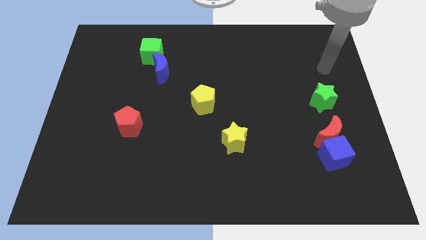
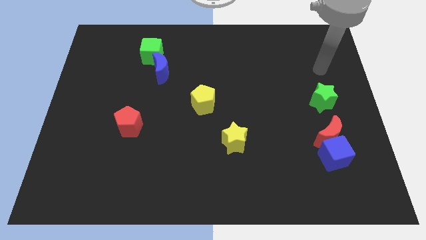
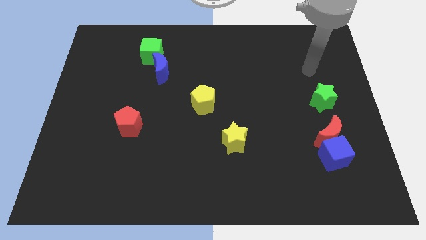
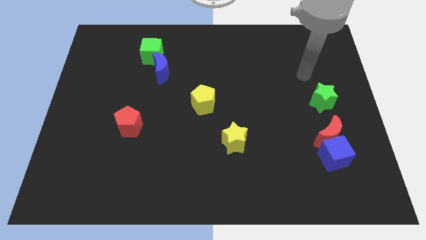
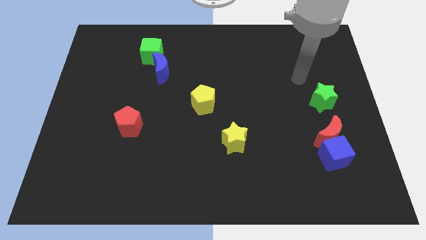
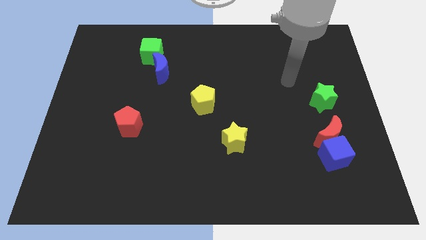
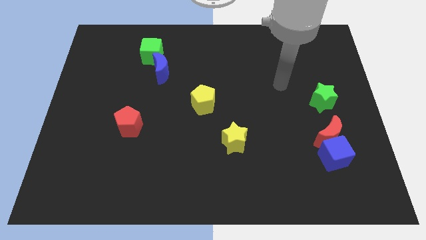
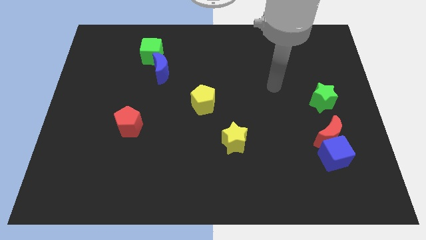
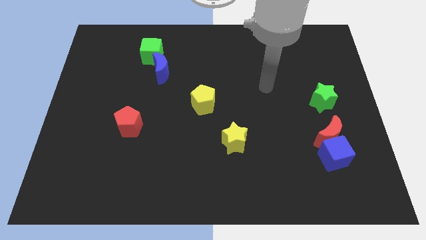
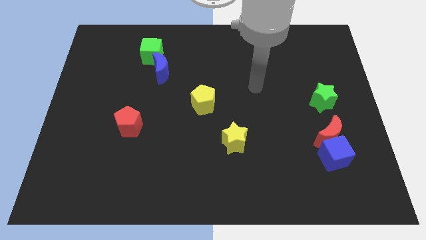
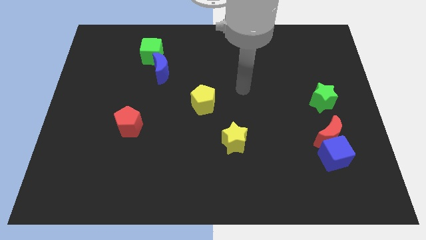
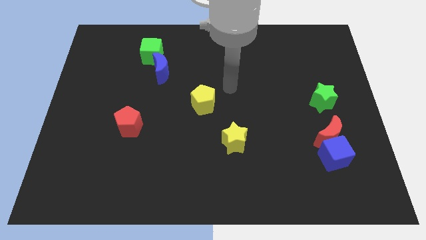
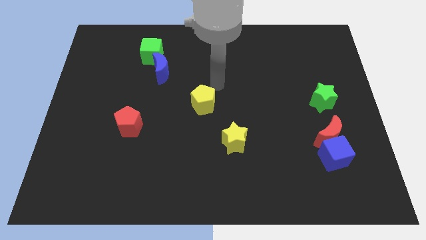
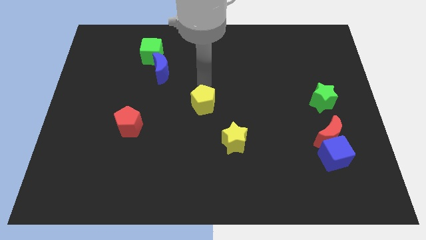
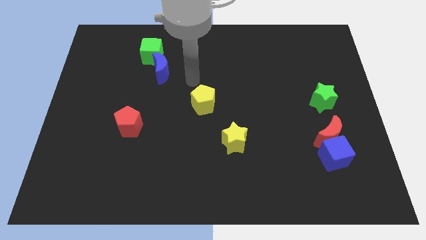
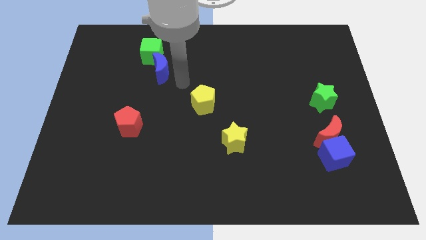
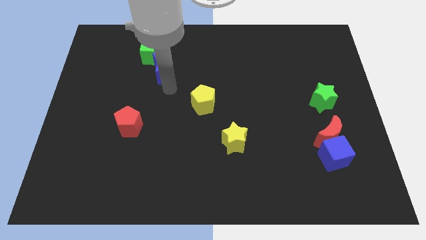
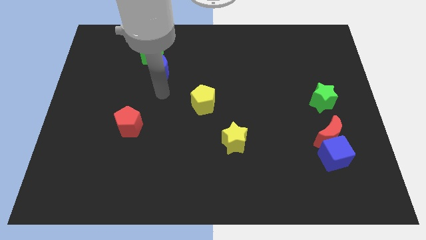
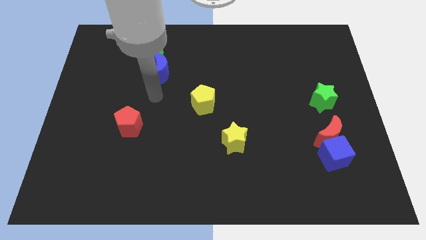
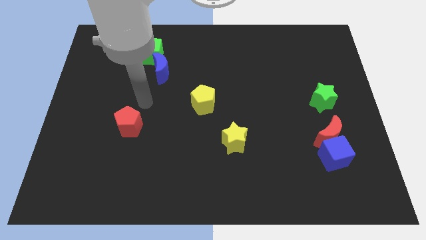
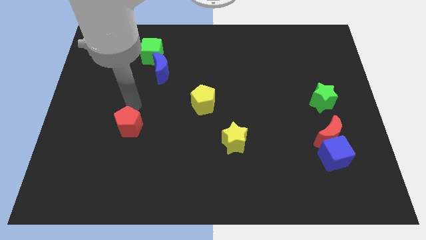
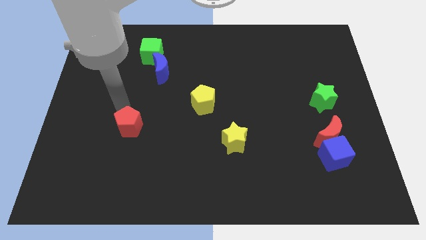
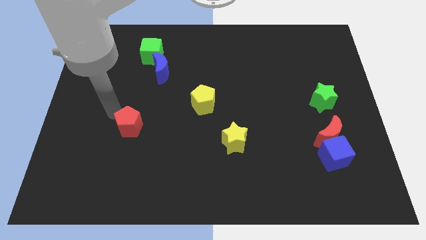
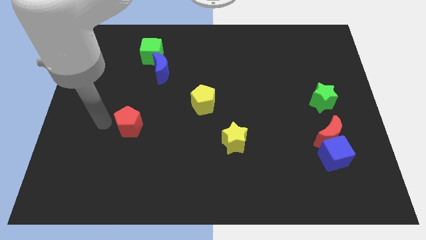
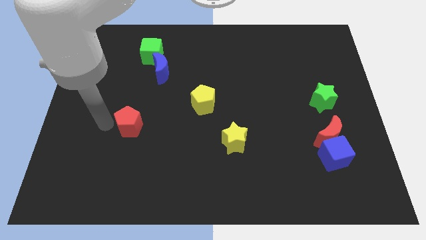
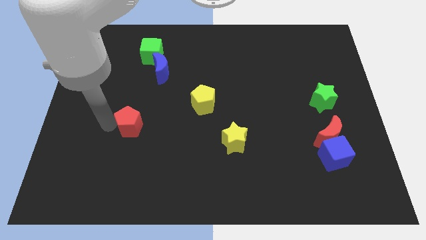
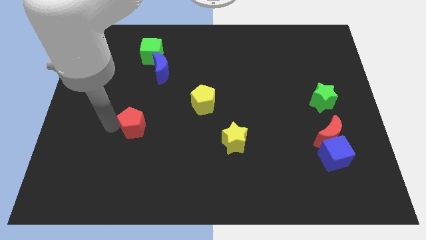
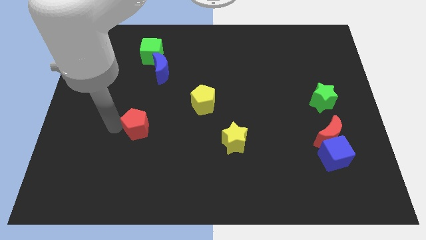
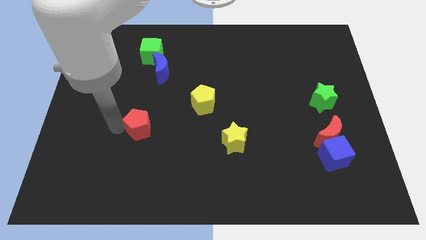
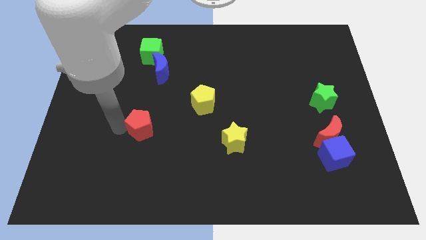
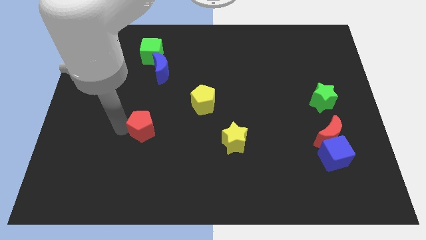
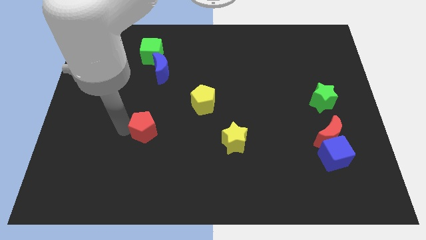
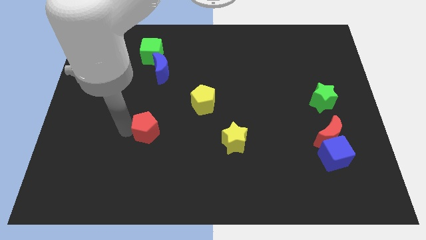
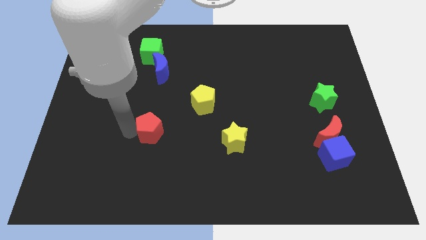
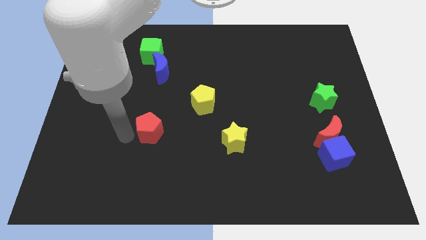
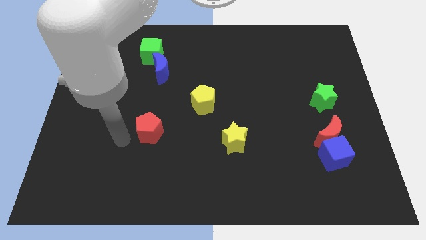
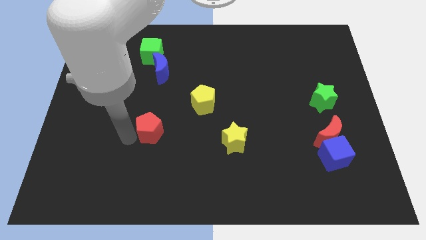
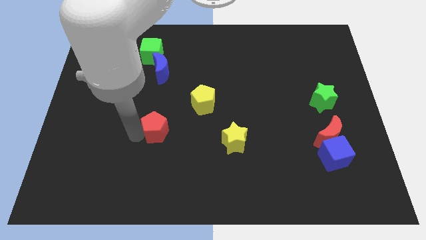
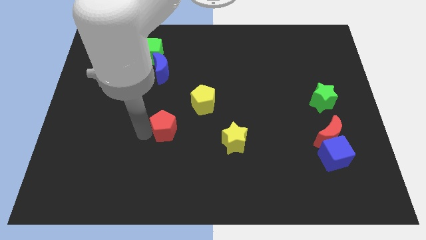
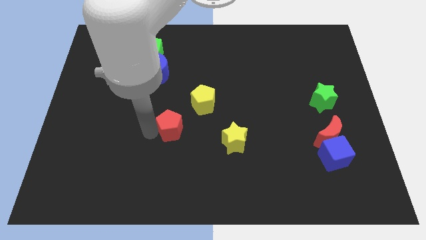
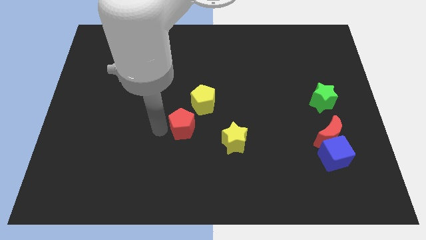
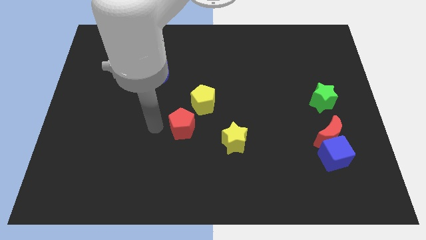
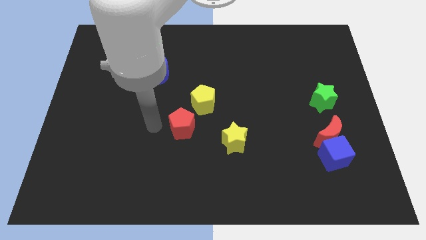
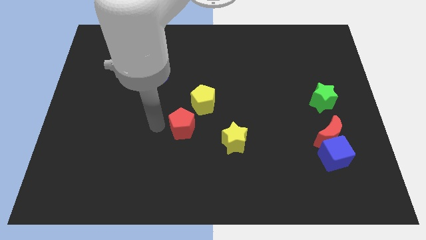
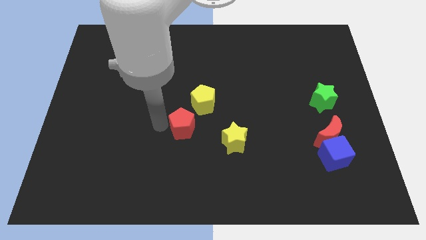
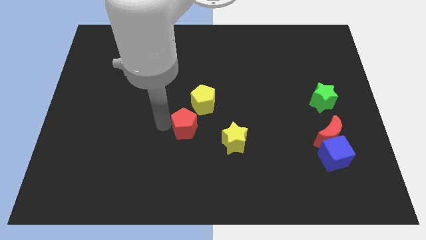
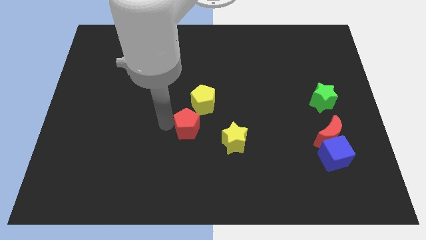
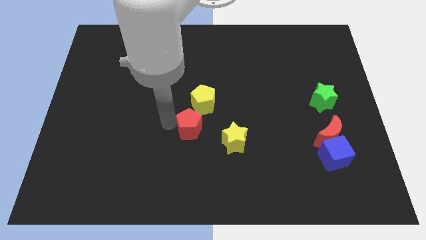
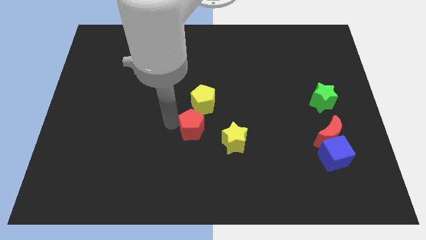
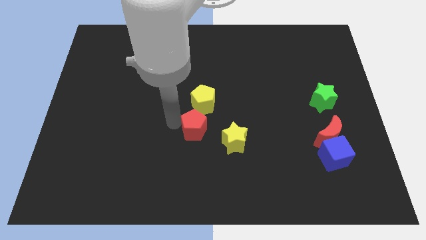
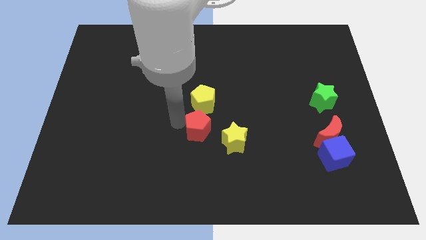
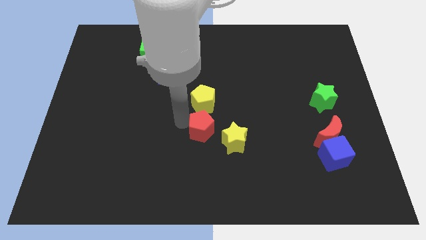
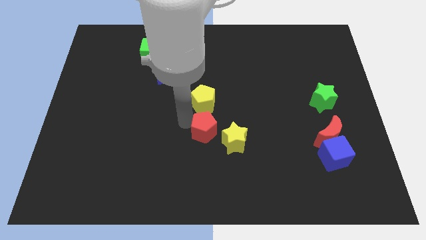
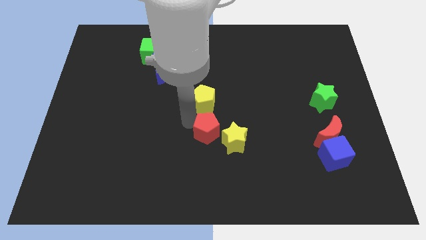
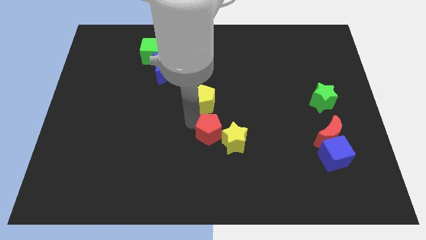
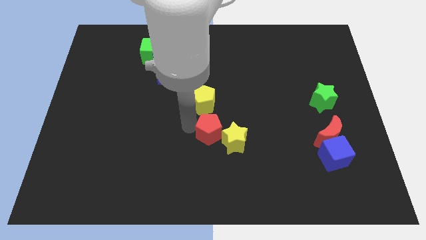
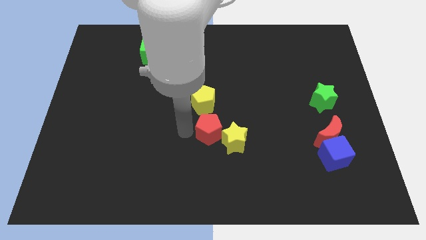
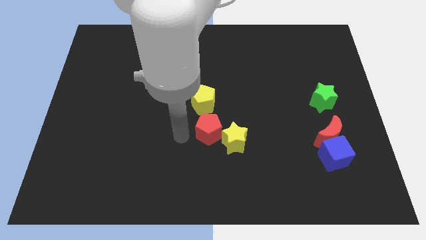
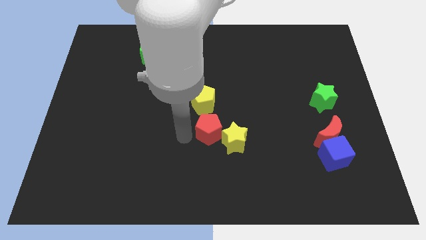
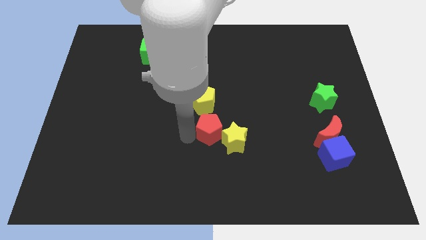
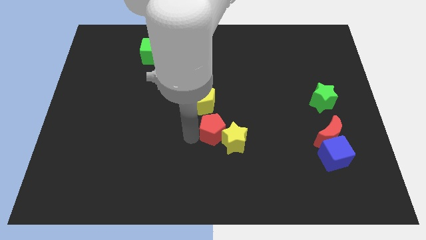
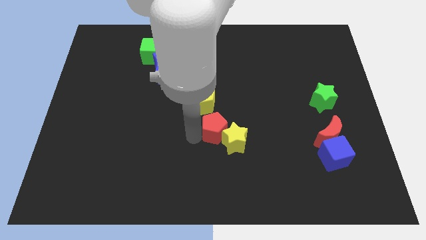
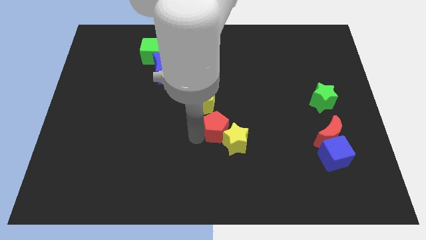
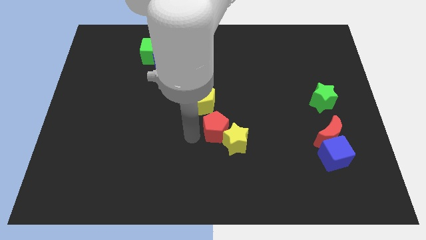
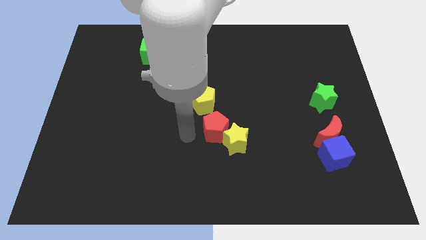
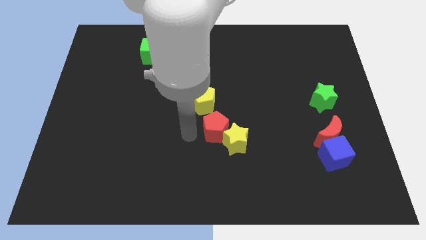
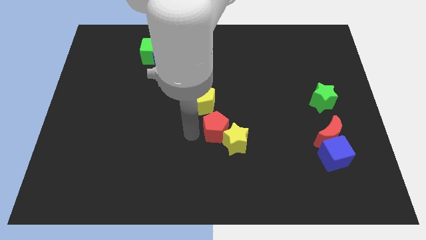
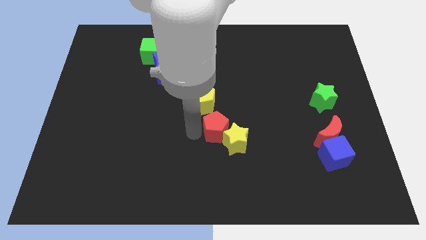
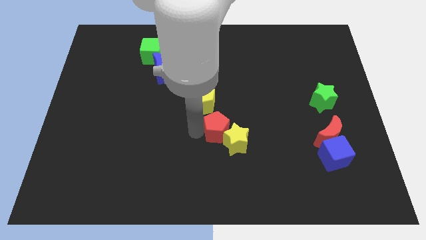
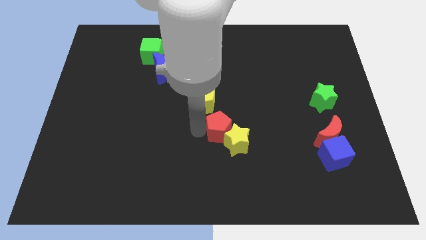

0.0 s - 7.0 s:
move the red pentagon right

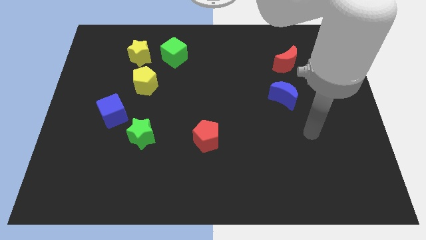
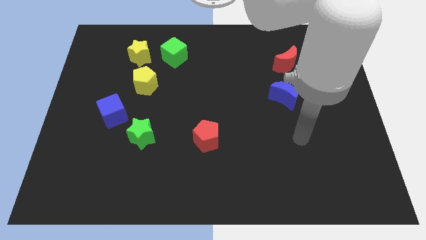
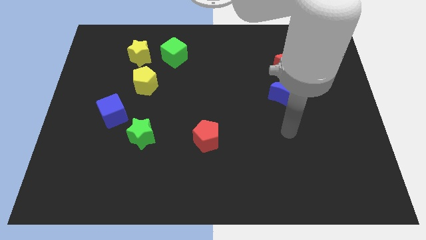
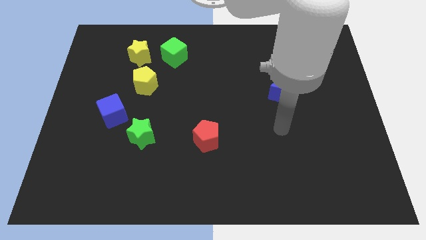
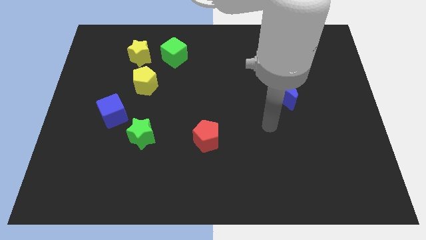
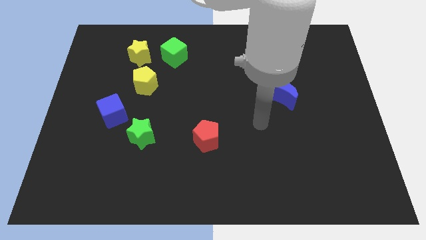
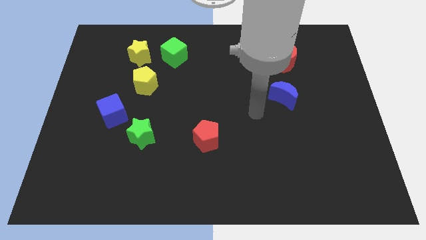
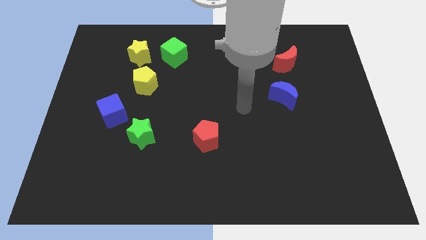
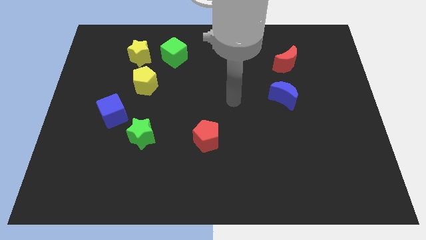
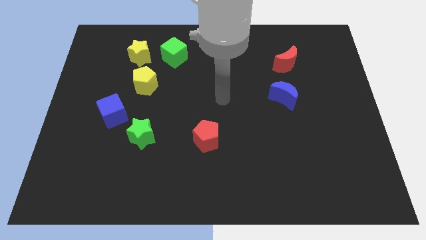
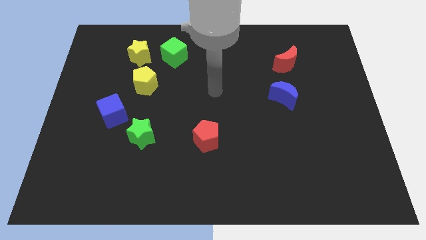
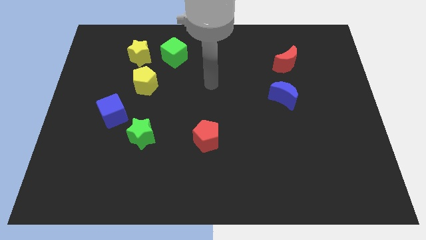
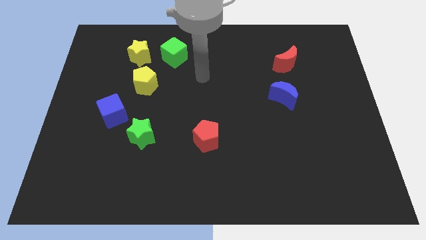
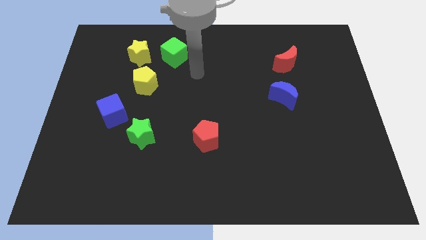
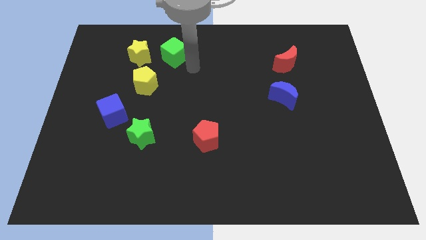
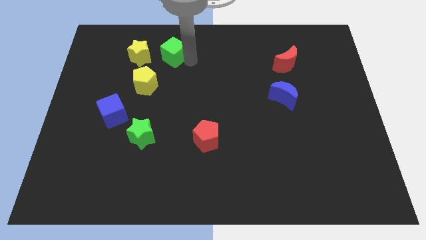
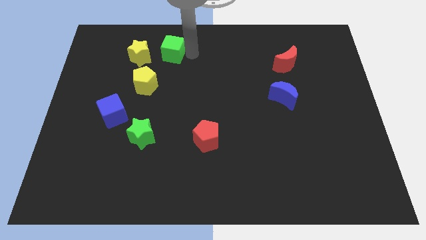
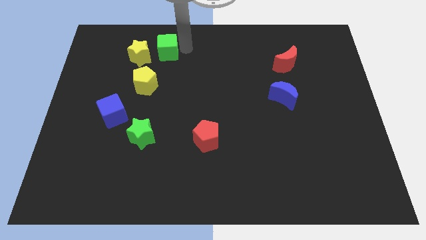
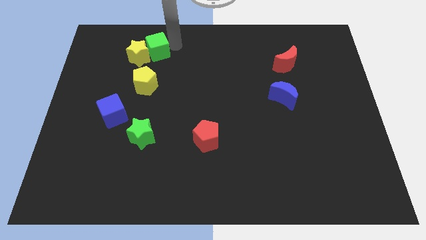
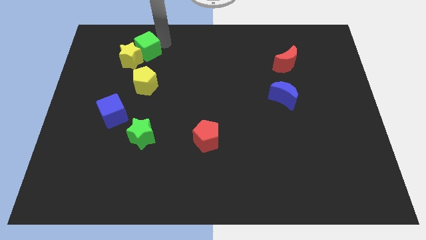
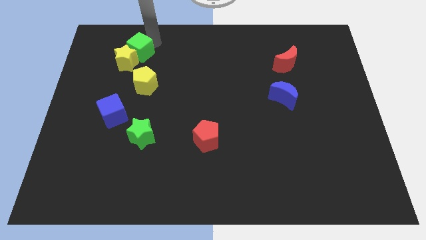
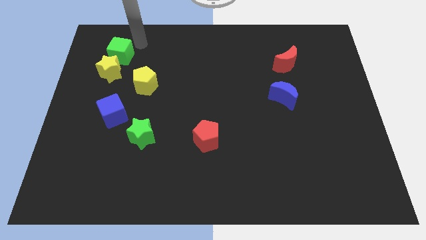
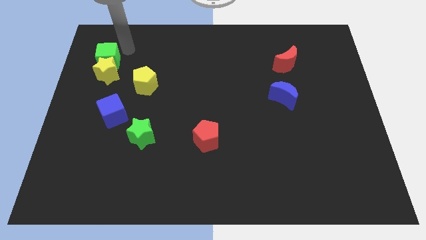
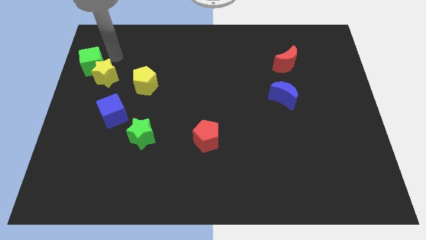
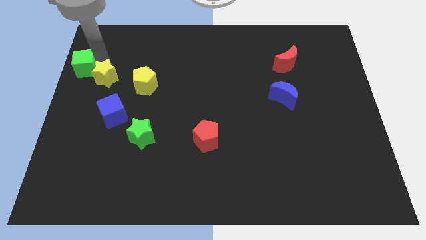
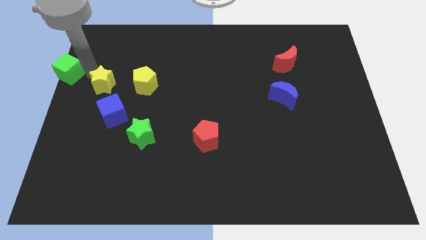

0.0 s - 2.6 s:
push the yellow star a little down
